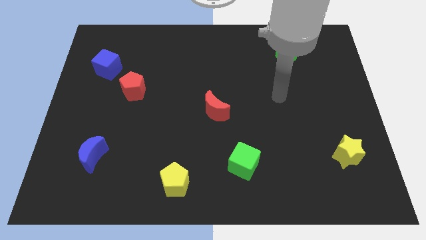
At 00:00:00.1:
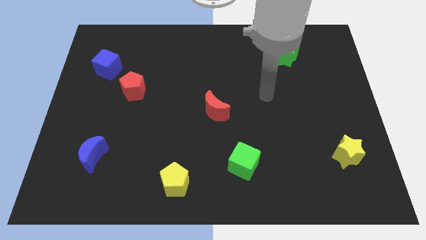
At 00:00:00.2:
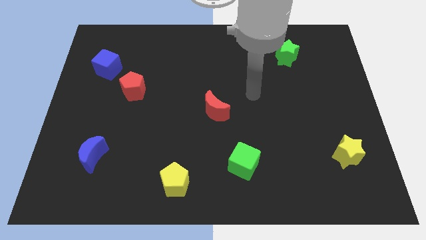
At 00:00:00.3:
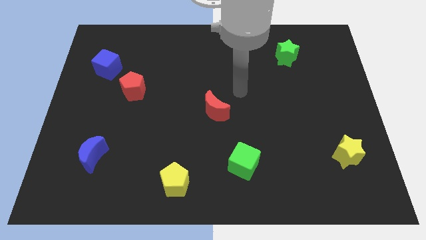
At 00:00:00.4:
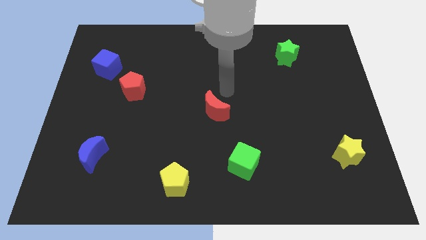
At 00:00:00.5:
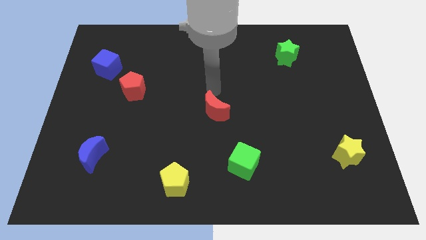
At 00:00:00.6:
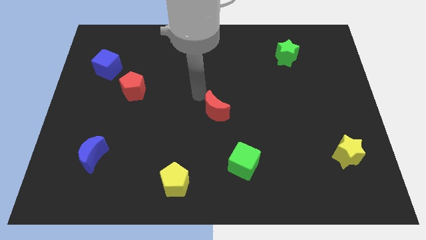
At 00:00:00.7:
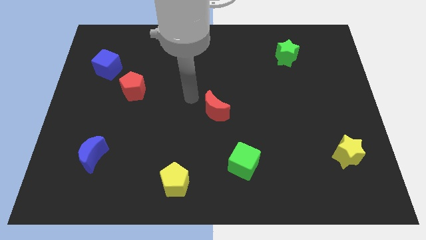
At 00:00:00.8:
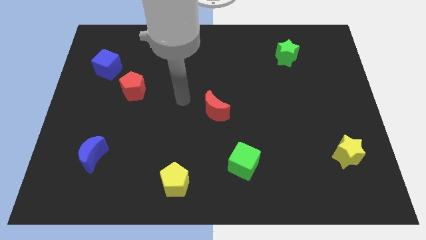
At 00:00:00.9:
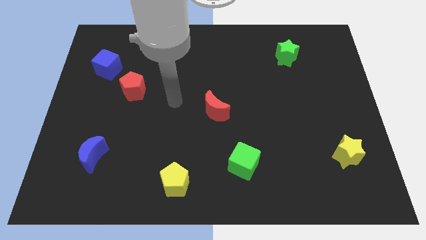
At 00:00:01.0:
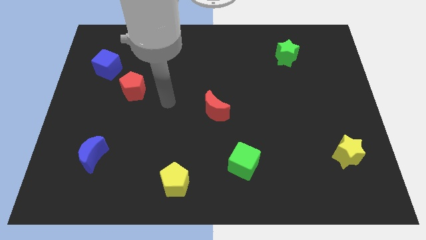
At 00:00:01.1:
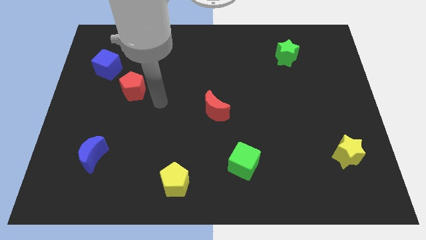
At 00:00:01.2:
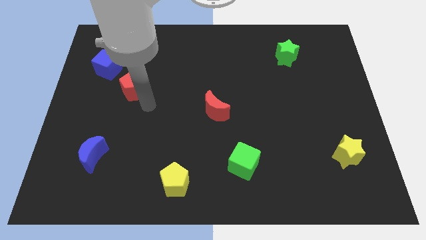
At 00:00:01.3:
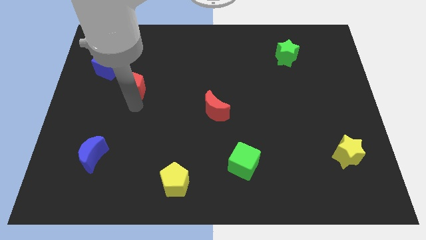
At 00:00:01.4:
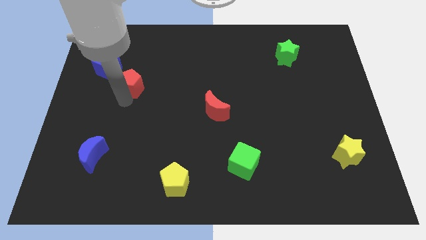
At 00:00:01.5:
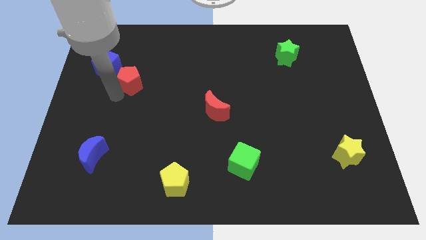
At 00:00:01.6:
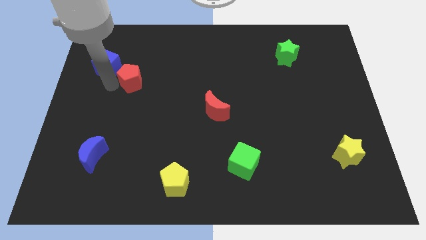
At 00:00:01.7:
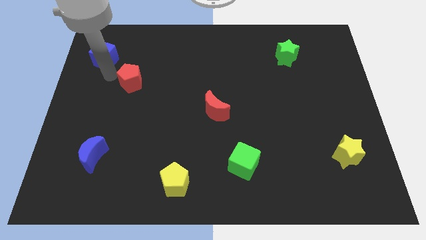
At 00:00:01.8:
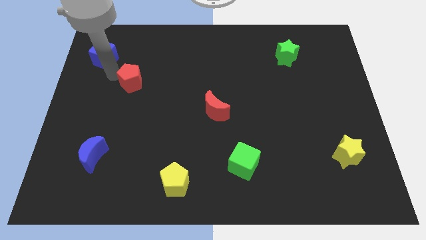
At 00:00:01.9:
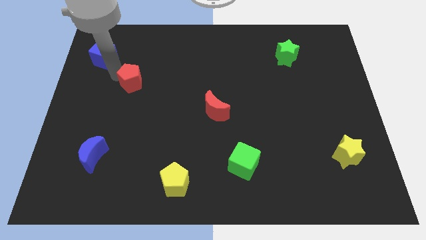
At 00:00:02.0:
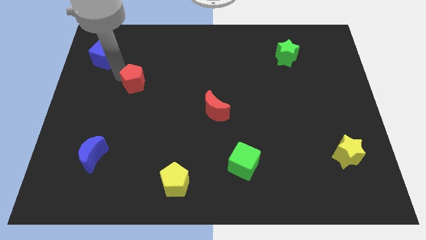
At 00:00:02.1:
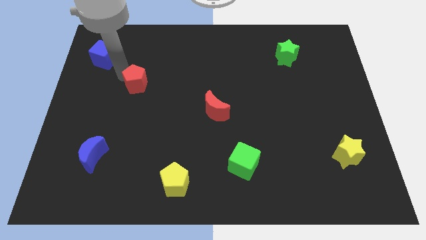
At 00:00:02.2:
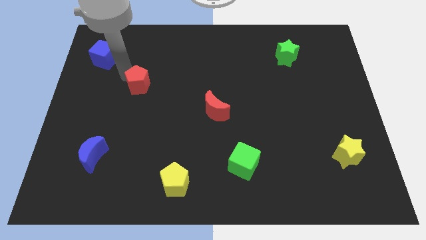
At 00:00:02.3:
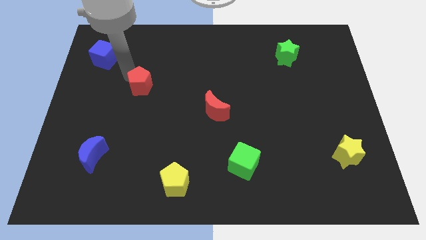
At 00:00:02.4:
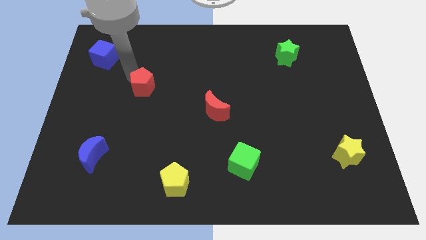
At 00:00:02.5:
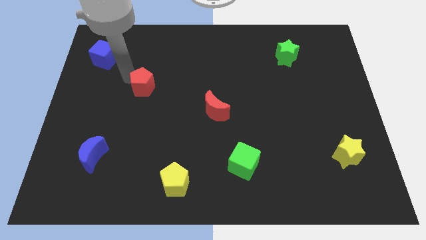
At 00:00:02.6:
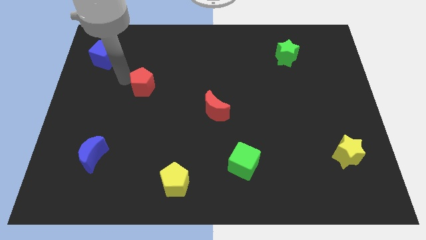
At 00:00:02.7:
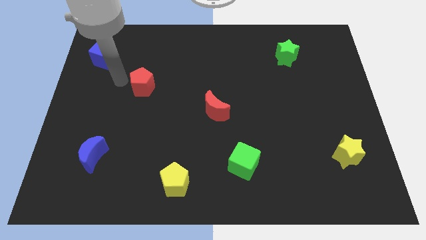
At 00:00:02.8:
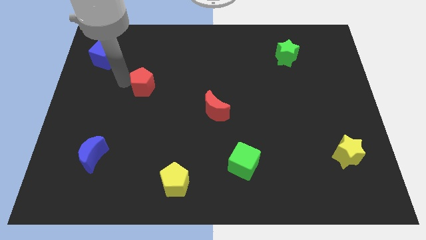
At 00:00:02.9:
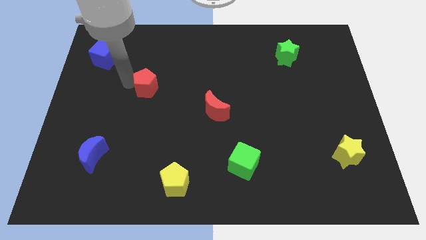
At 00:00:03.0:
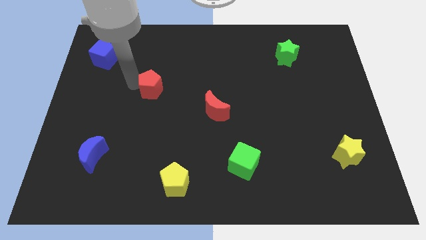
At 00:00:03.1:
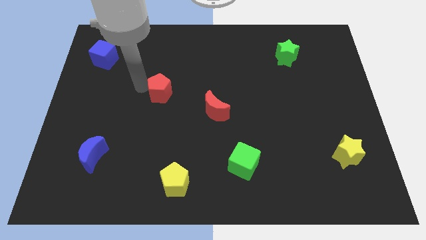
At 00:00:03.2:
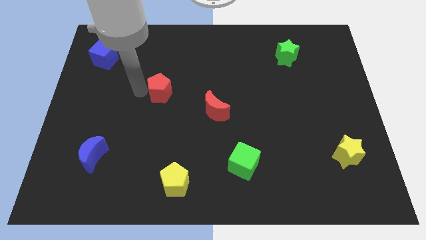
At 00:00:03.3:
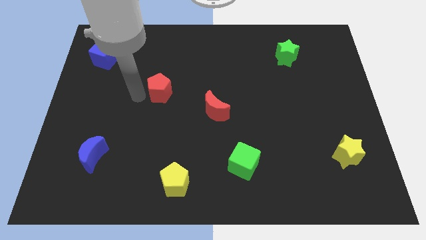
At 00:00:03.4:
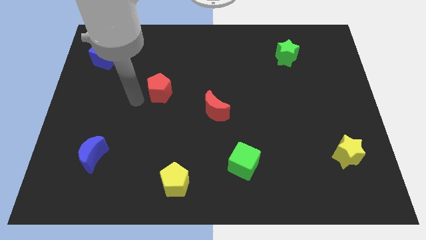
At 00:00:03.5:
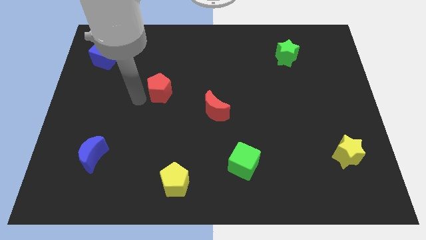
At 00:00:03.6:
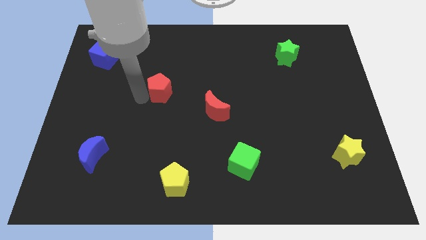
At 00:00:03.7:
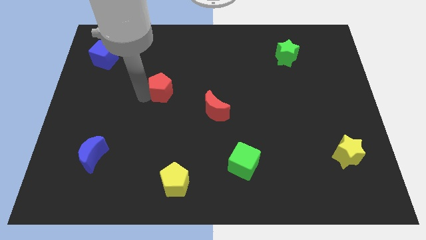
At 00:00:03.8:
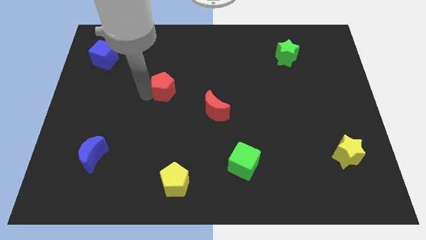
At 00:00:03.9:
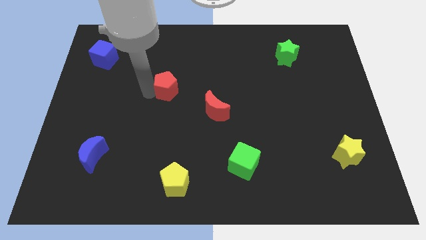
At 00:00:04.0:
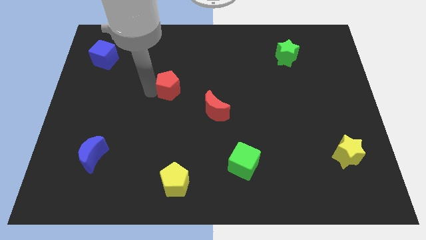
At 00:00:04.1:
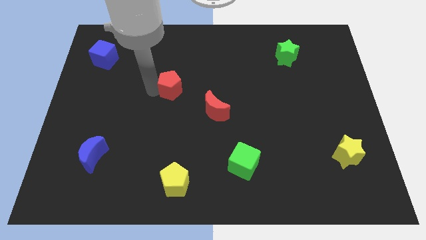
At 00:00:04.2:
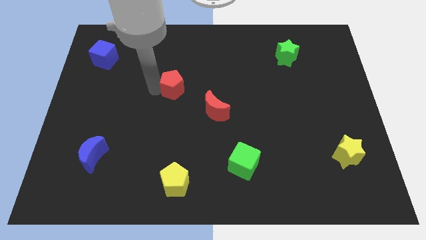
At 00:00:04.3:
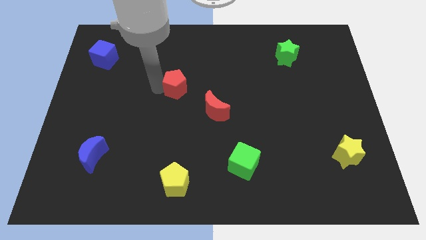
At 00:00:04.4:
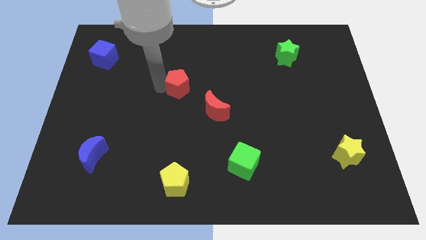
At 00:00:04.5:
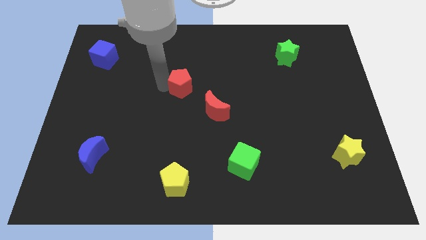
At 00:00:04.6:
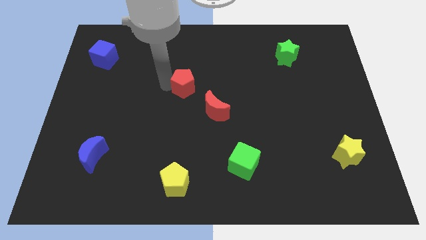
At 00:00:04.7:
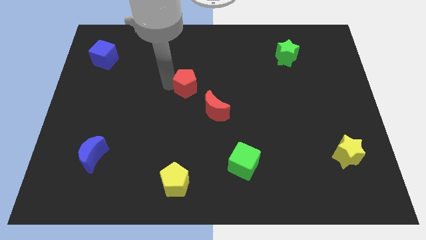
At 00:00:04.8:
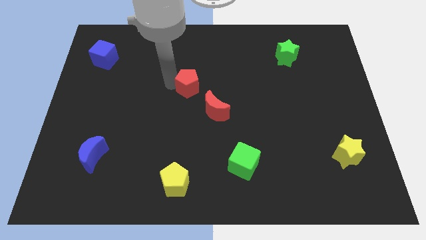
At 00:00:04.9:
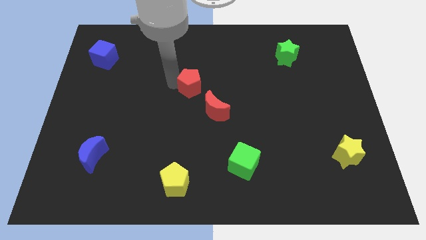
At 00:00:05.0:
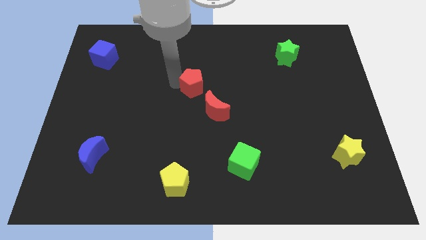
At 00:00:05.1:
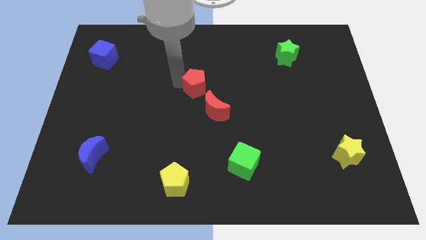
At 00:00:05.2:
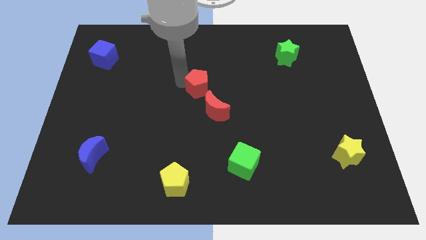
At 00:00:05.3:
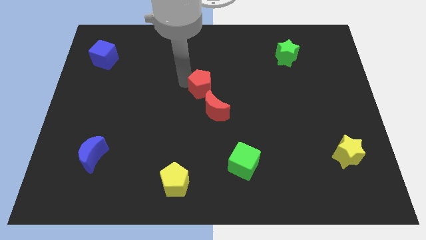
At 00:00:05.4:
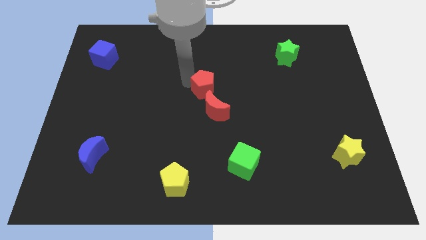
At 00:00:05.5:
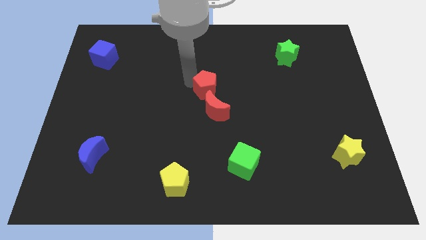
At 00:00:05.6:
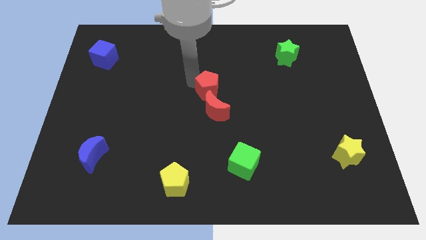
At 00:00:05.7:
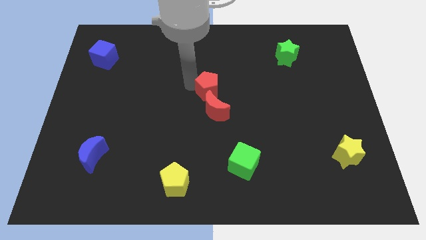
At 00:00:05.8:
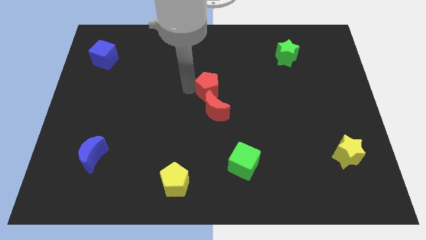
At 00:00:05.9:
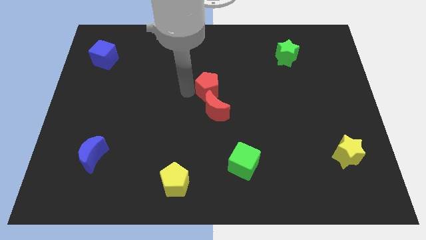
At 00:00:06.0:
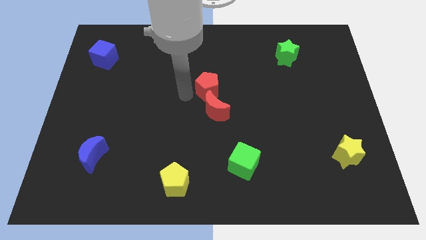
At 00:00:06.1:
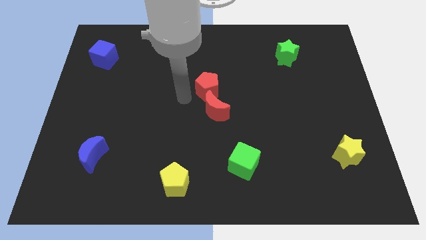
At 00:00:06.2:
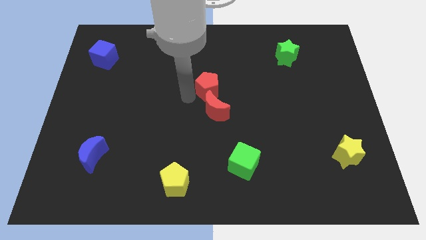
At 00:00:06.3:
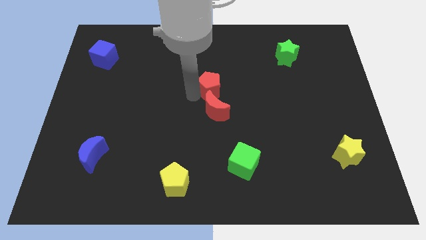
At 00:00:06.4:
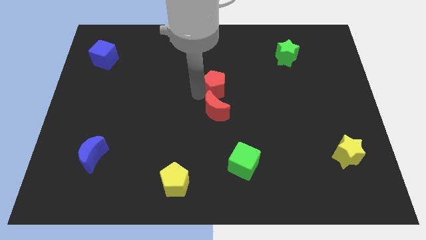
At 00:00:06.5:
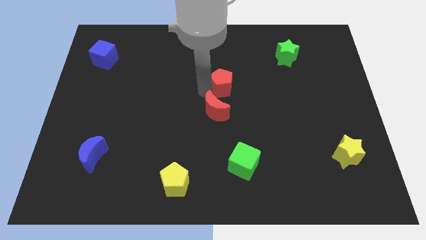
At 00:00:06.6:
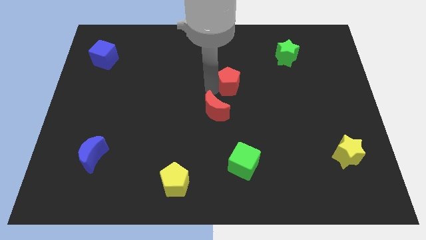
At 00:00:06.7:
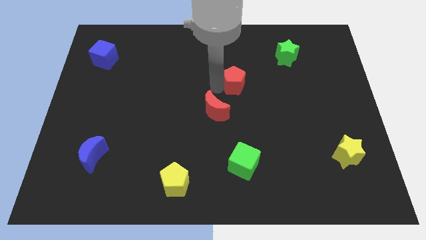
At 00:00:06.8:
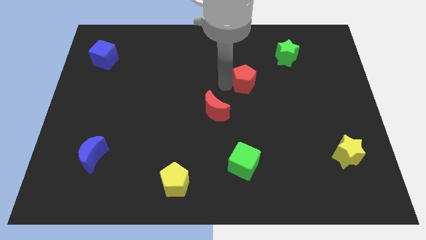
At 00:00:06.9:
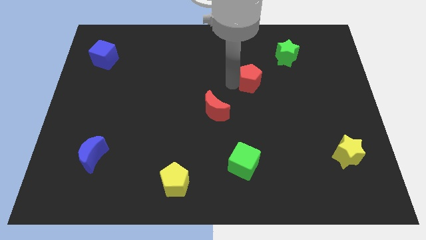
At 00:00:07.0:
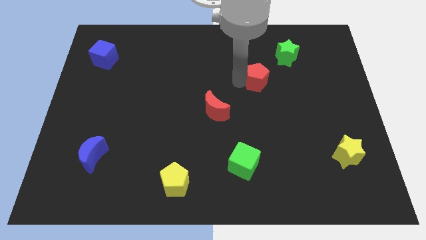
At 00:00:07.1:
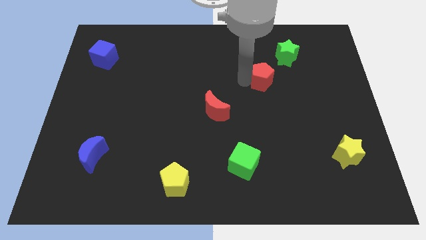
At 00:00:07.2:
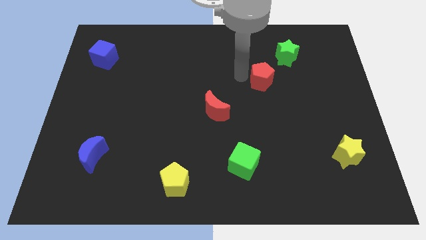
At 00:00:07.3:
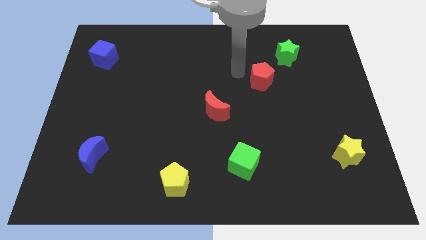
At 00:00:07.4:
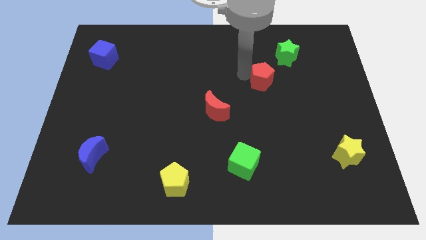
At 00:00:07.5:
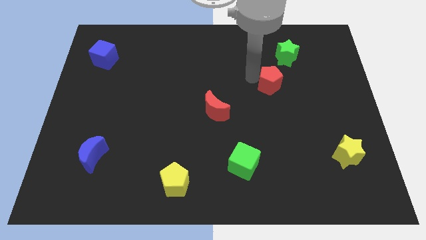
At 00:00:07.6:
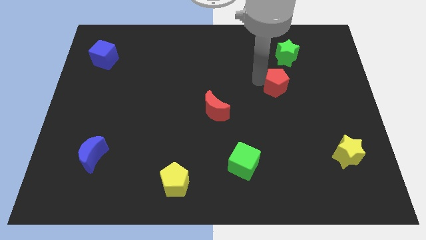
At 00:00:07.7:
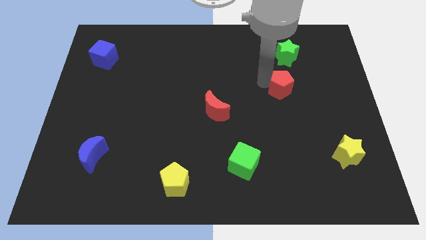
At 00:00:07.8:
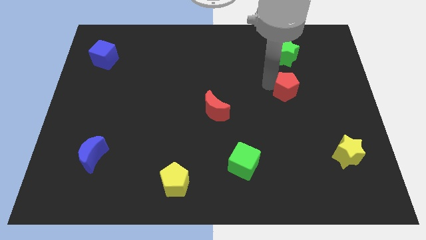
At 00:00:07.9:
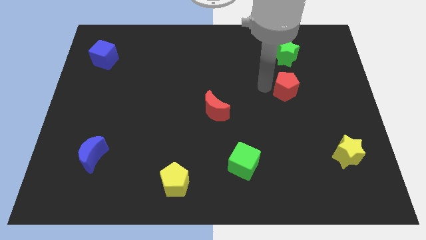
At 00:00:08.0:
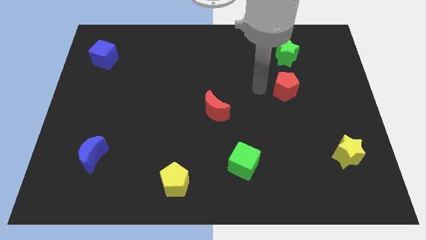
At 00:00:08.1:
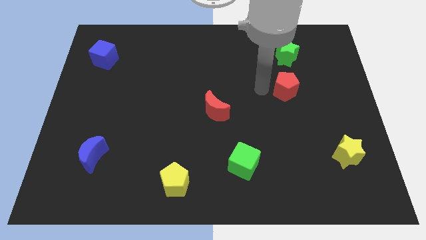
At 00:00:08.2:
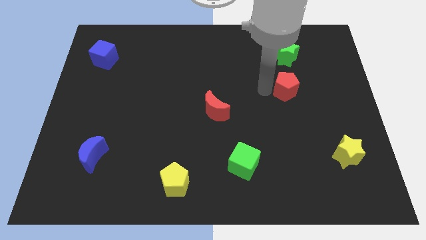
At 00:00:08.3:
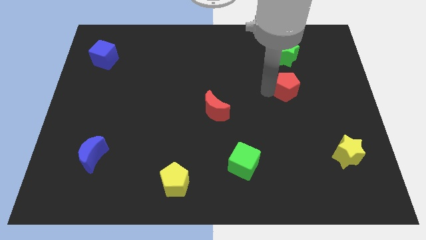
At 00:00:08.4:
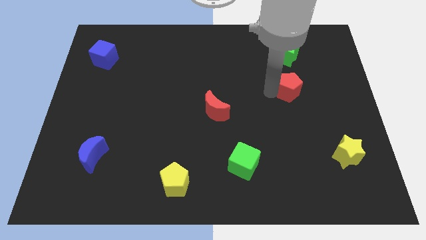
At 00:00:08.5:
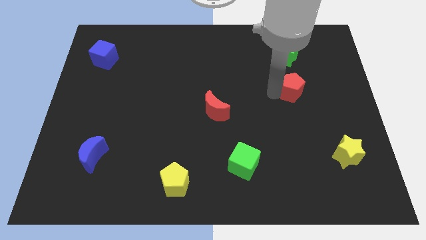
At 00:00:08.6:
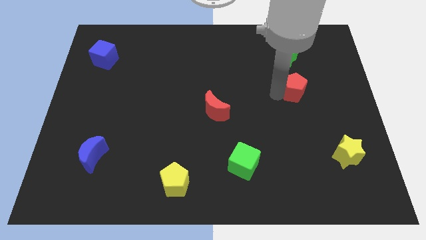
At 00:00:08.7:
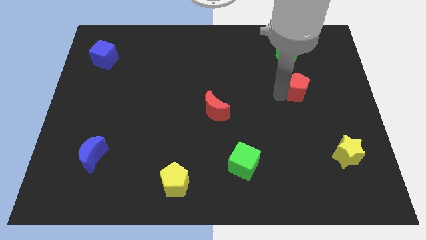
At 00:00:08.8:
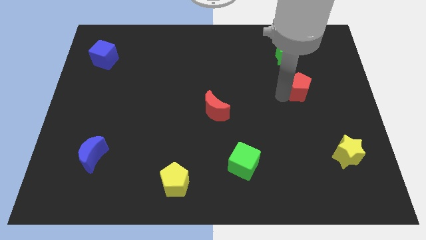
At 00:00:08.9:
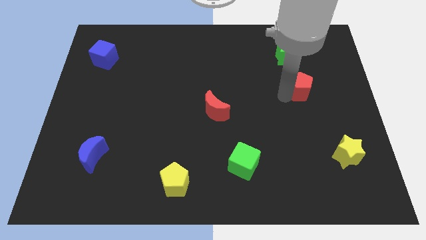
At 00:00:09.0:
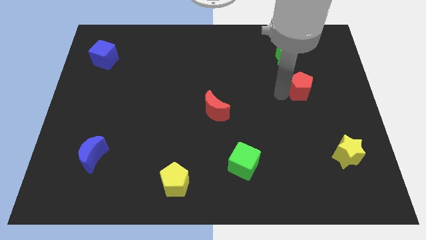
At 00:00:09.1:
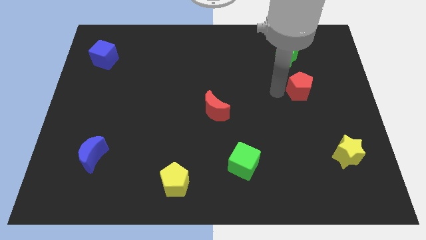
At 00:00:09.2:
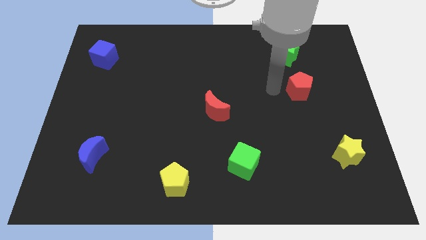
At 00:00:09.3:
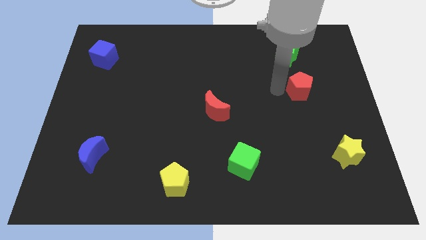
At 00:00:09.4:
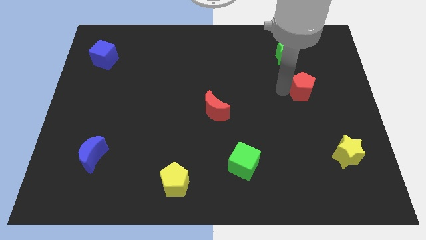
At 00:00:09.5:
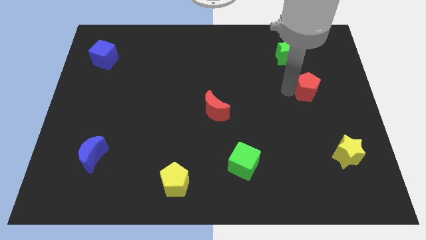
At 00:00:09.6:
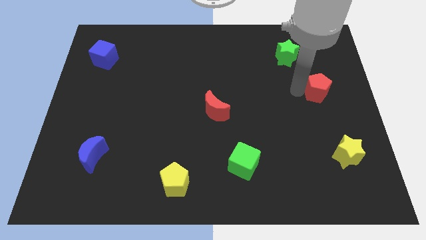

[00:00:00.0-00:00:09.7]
slide the red pentagon to the right side
